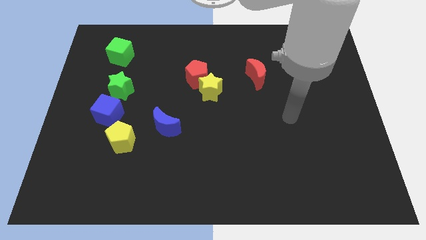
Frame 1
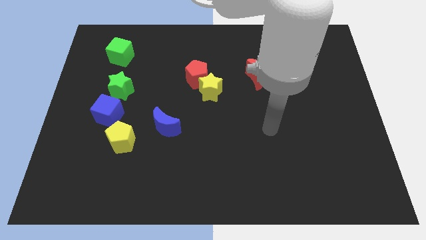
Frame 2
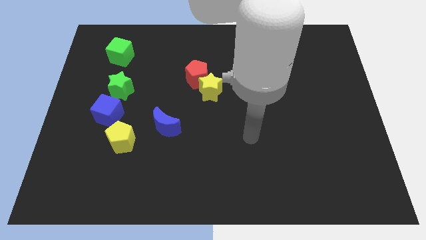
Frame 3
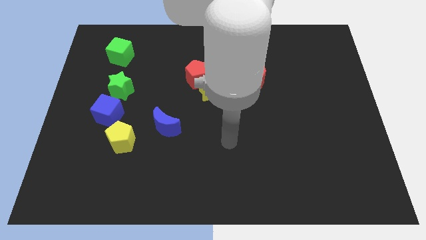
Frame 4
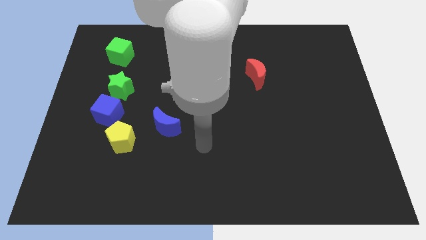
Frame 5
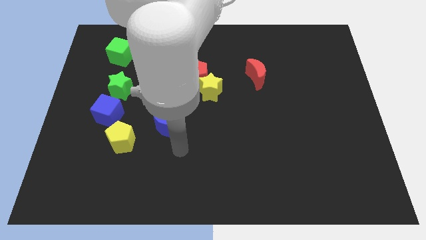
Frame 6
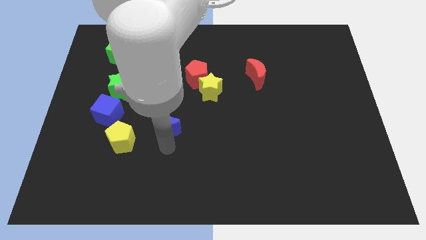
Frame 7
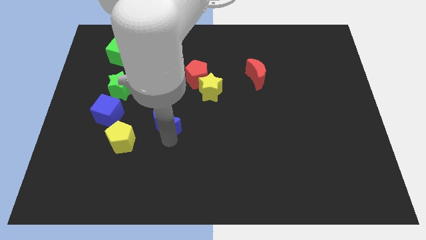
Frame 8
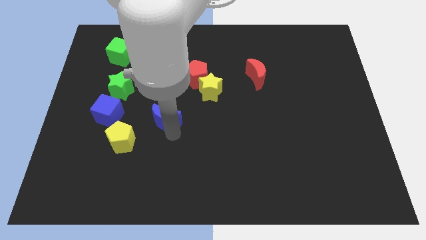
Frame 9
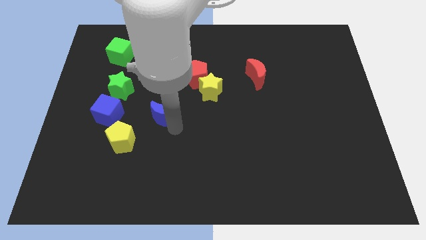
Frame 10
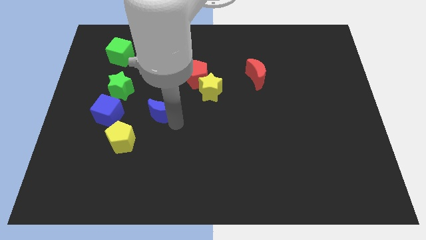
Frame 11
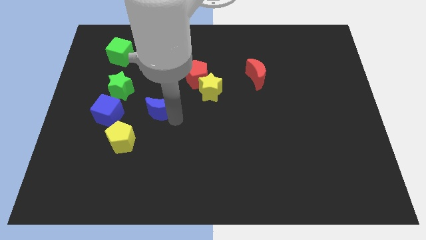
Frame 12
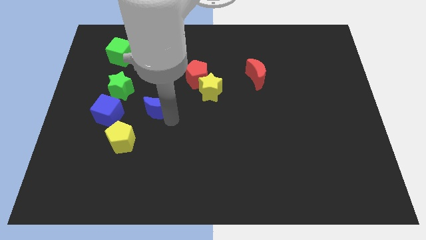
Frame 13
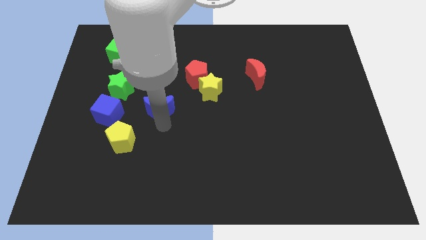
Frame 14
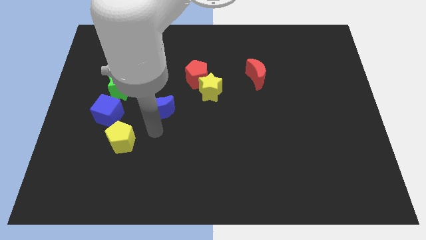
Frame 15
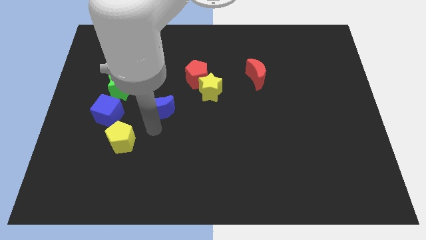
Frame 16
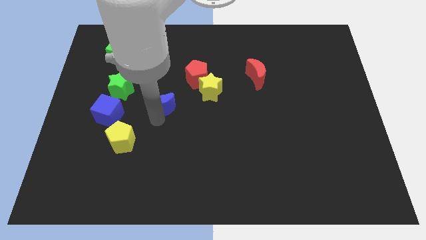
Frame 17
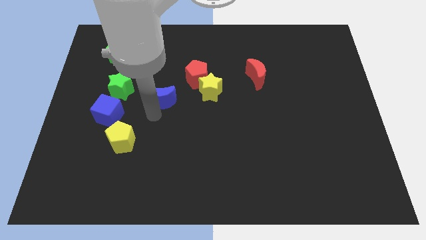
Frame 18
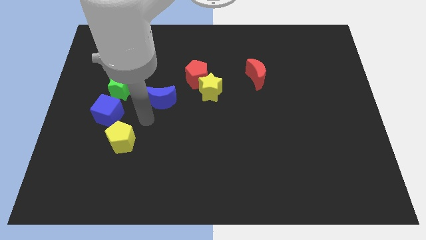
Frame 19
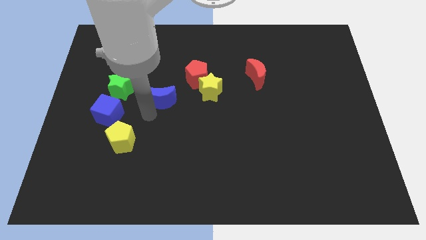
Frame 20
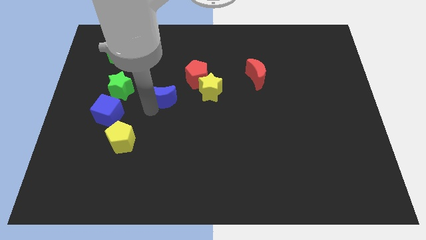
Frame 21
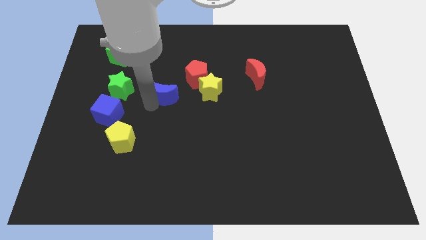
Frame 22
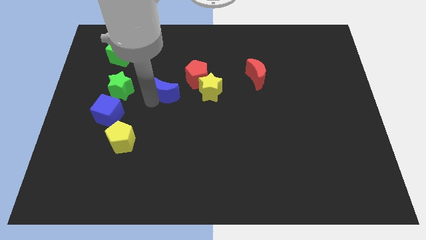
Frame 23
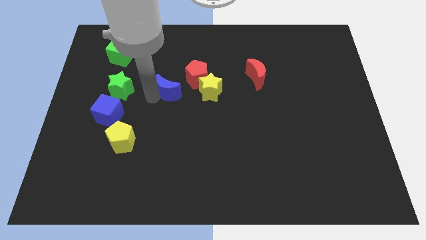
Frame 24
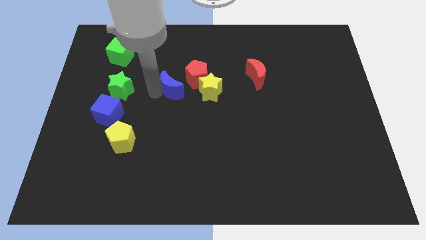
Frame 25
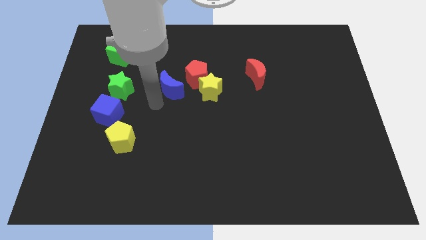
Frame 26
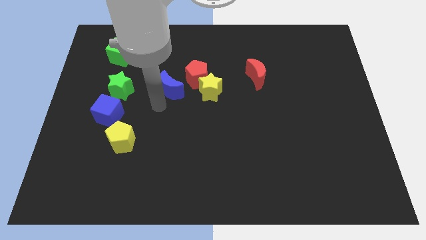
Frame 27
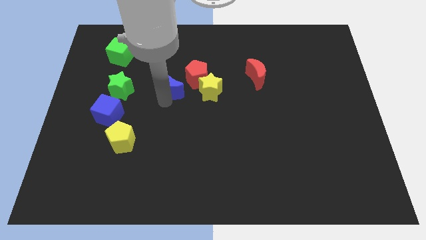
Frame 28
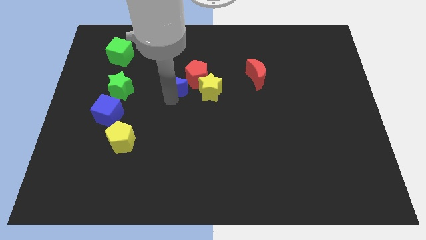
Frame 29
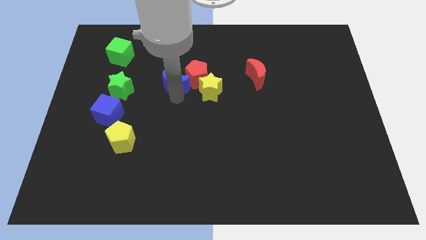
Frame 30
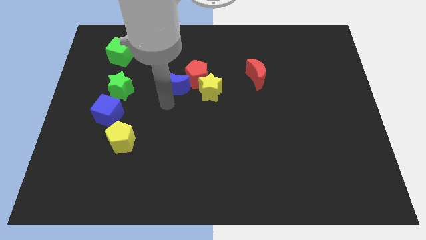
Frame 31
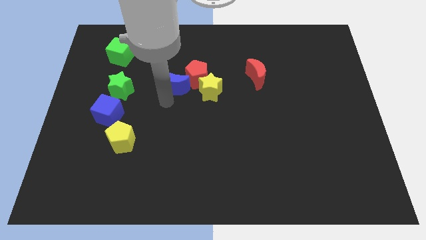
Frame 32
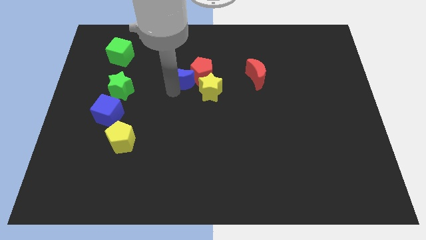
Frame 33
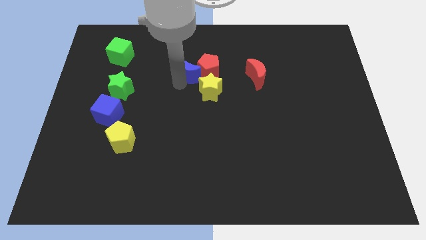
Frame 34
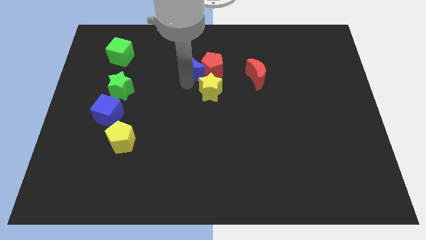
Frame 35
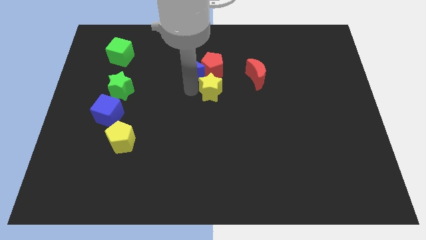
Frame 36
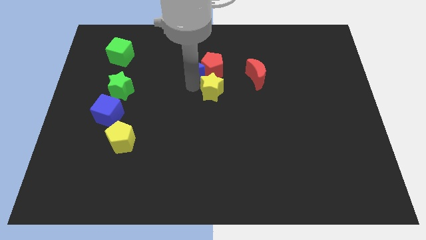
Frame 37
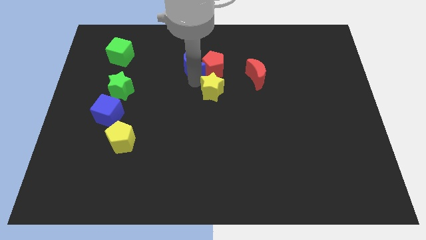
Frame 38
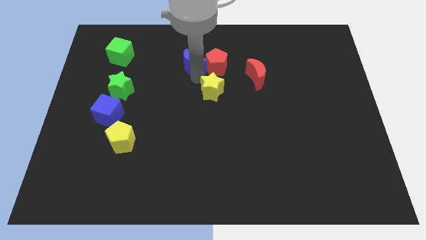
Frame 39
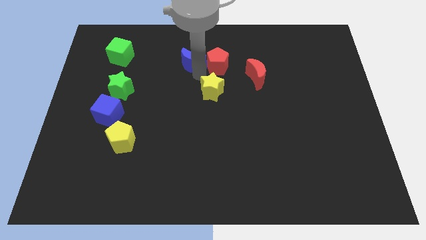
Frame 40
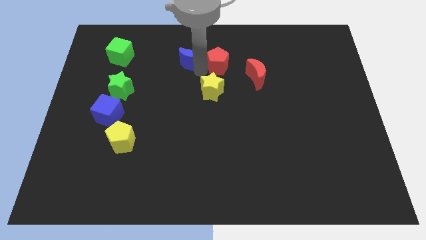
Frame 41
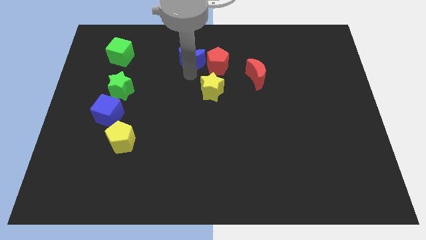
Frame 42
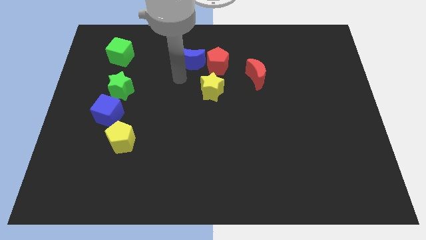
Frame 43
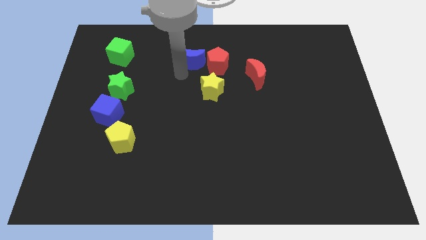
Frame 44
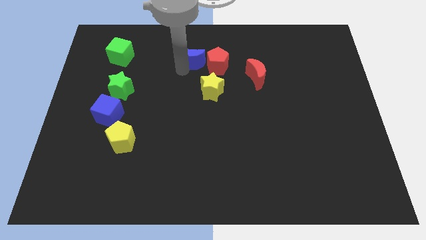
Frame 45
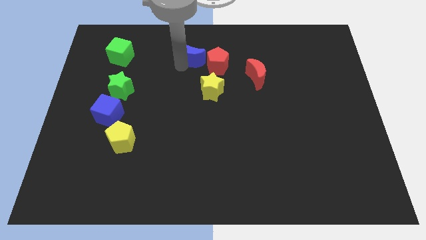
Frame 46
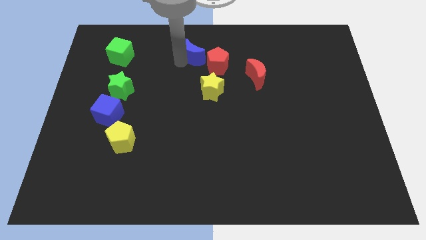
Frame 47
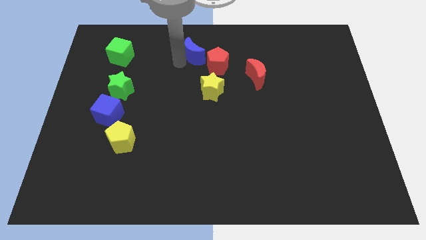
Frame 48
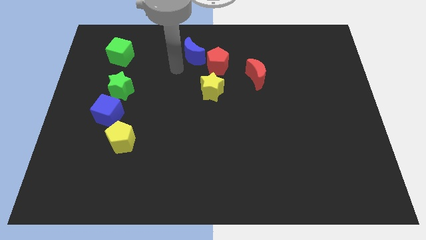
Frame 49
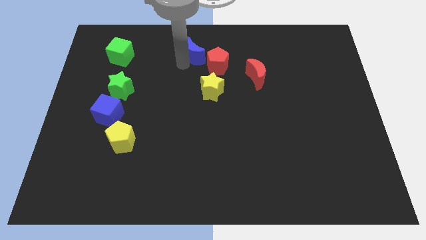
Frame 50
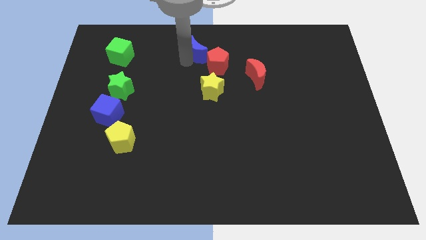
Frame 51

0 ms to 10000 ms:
slide the blue moon to the towards your base

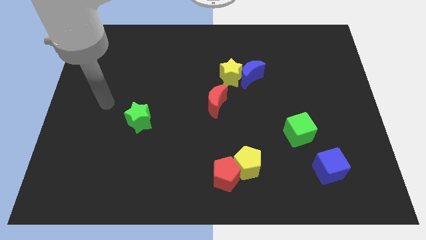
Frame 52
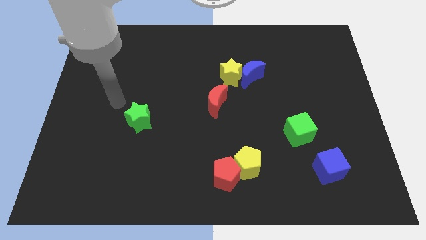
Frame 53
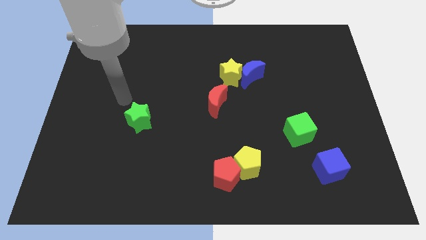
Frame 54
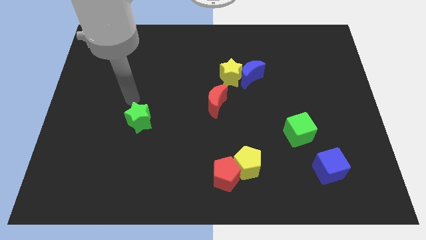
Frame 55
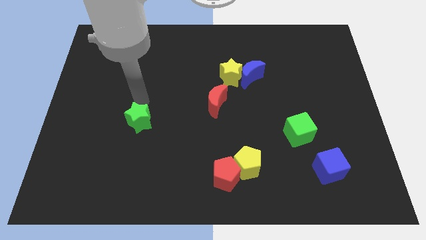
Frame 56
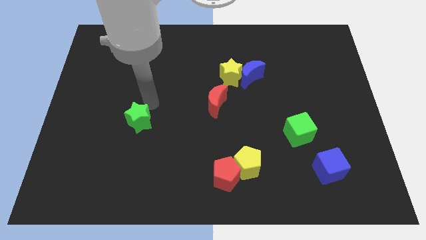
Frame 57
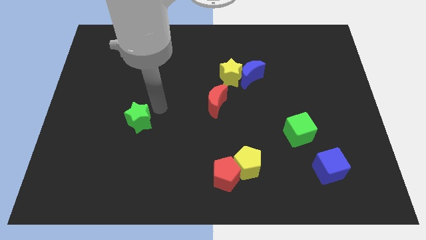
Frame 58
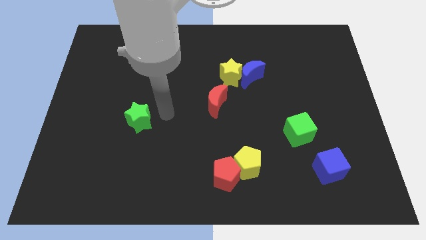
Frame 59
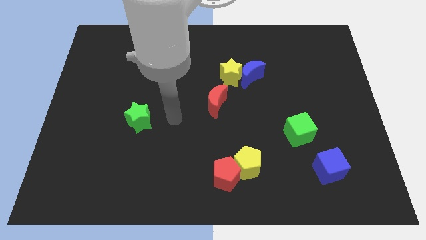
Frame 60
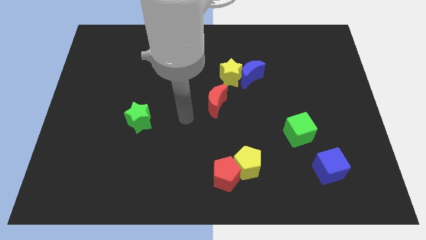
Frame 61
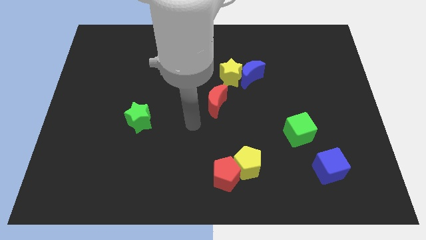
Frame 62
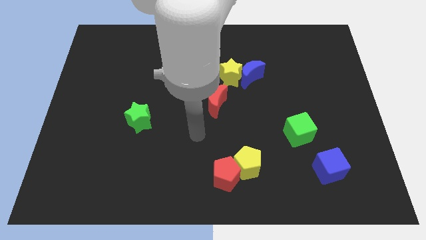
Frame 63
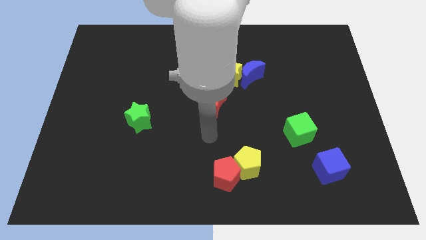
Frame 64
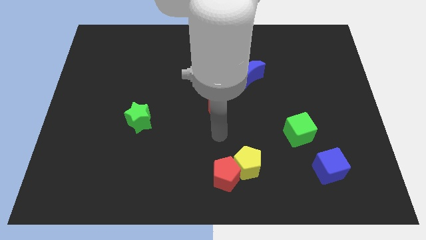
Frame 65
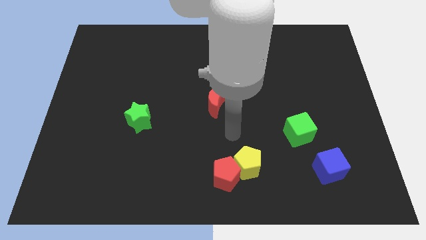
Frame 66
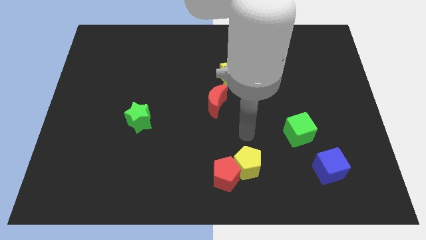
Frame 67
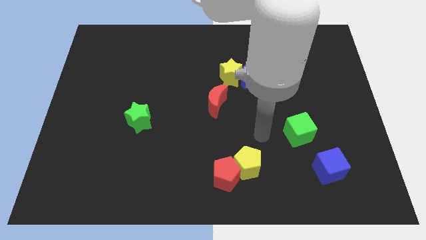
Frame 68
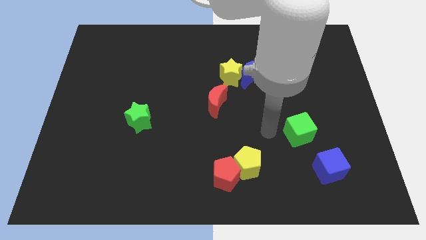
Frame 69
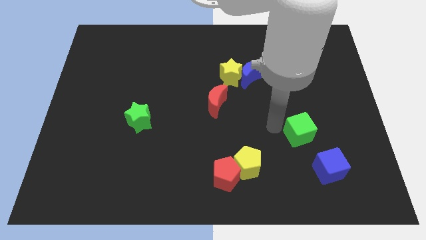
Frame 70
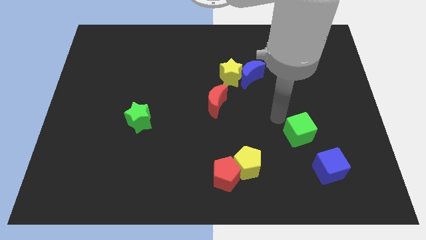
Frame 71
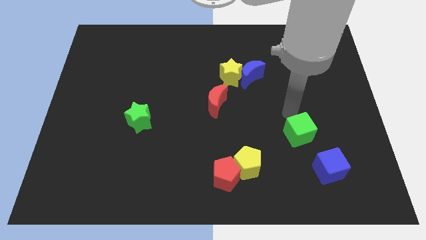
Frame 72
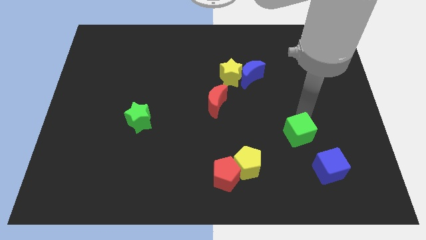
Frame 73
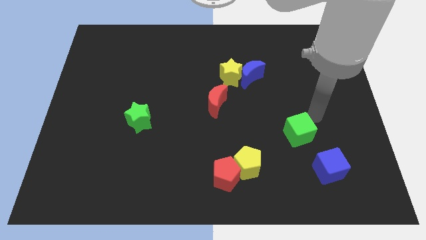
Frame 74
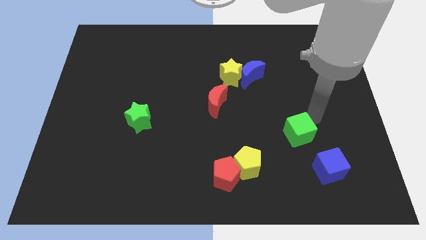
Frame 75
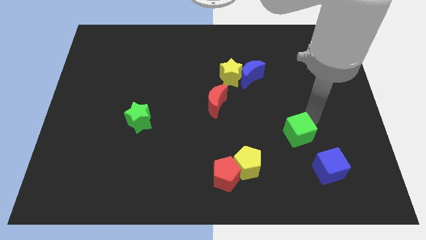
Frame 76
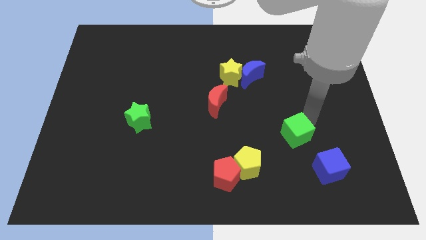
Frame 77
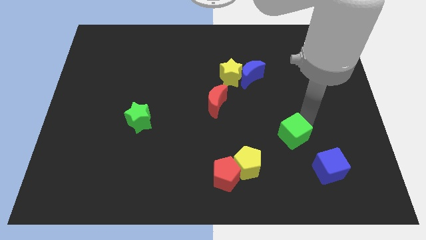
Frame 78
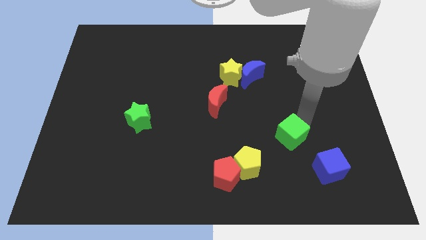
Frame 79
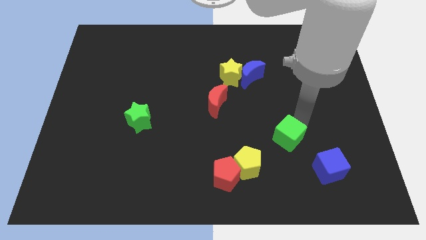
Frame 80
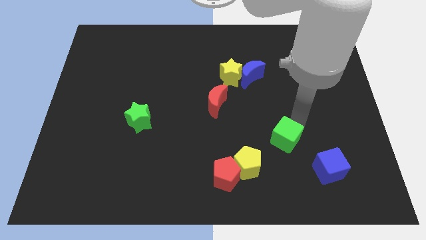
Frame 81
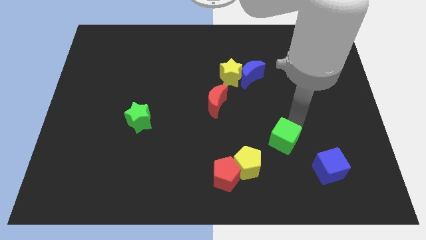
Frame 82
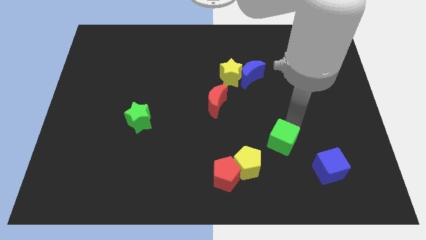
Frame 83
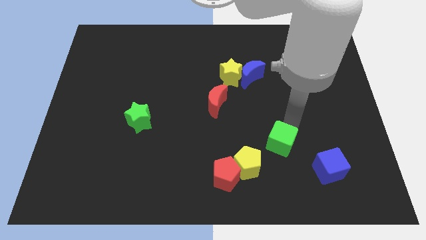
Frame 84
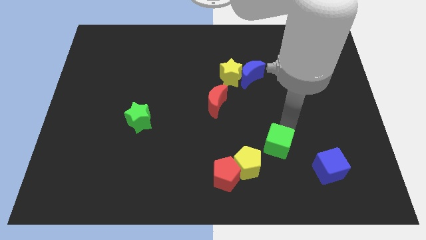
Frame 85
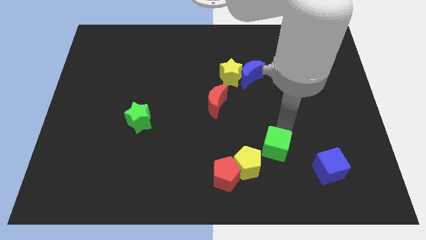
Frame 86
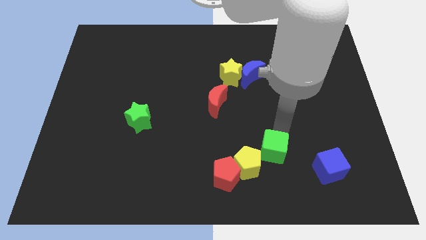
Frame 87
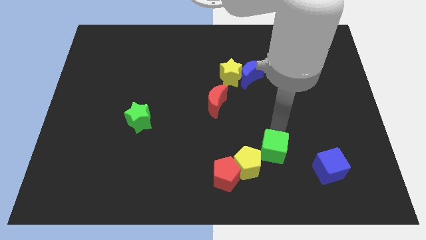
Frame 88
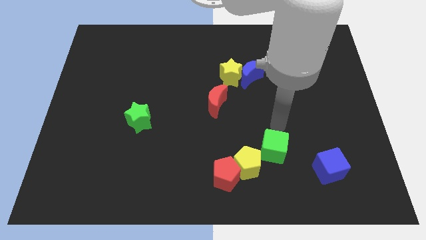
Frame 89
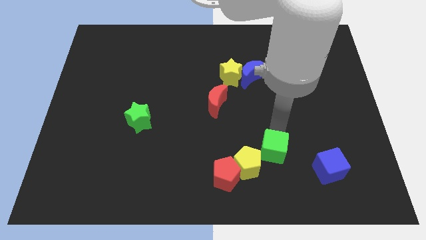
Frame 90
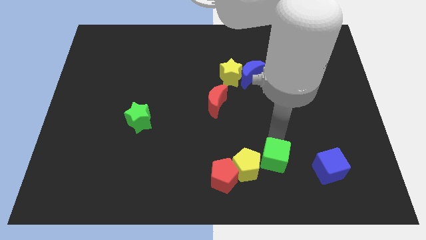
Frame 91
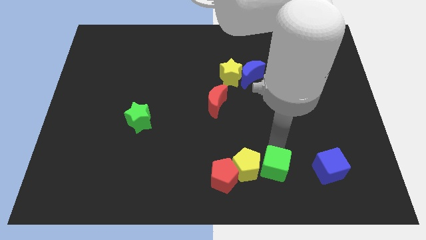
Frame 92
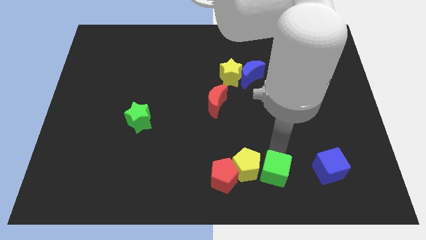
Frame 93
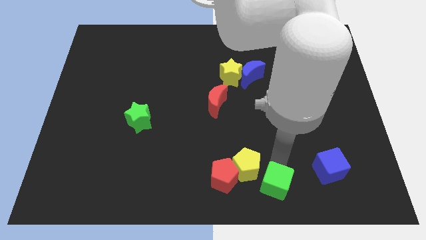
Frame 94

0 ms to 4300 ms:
put the green cube to the bottom
